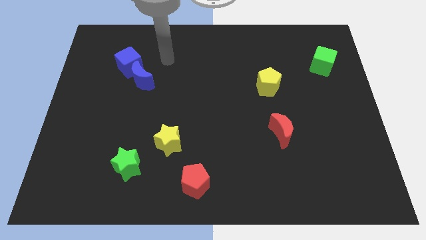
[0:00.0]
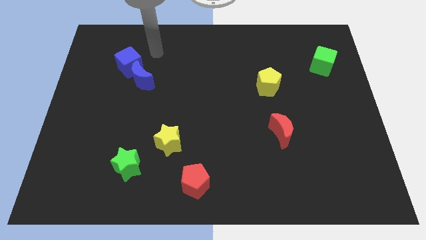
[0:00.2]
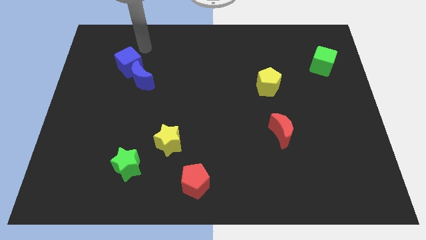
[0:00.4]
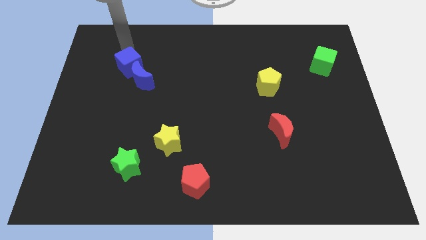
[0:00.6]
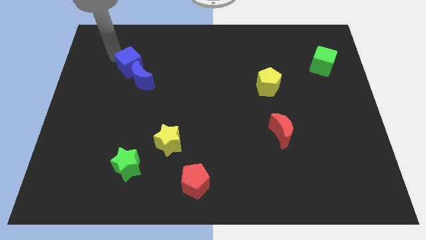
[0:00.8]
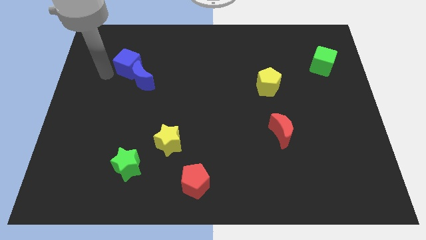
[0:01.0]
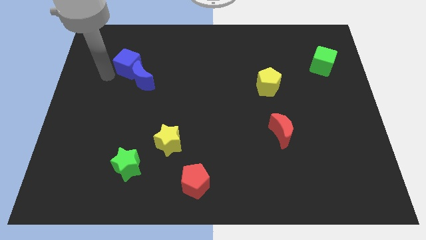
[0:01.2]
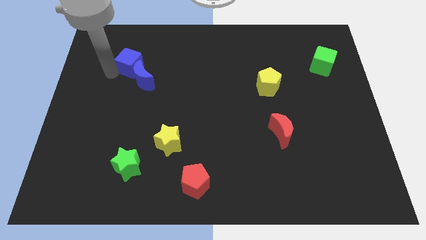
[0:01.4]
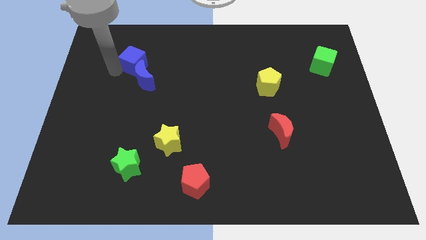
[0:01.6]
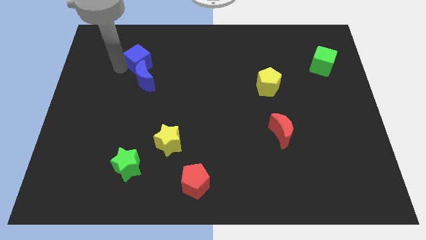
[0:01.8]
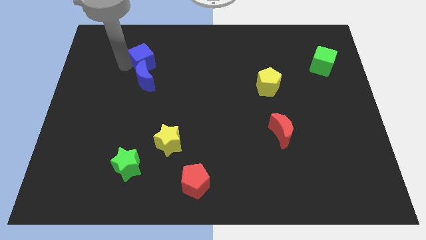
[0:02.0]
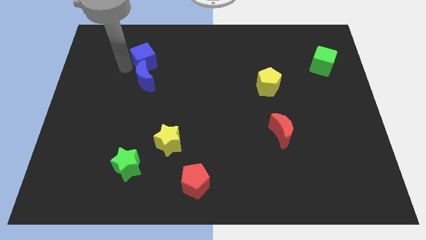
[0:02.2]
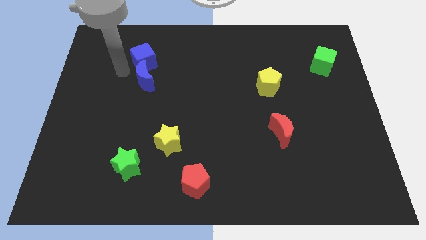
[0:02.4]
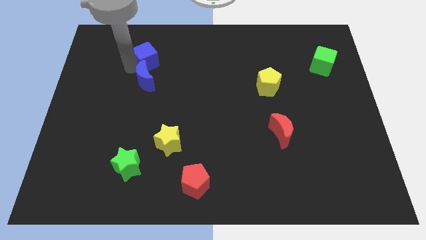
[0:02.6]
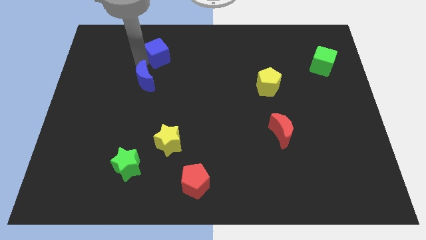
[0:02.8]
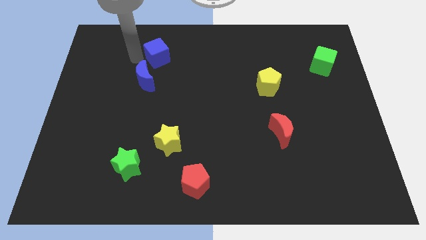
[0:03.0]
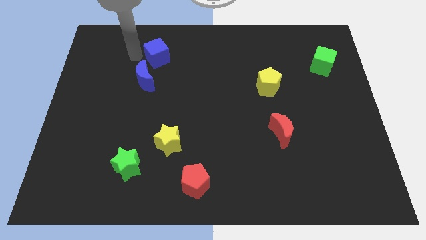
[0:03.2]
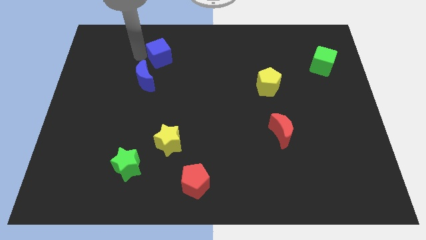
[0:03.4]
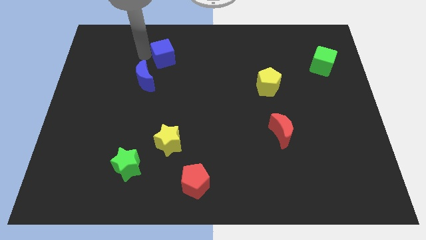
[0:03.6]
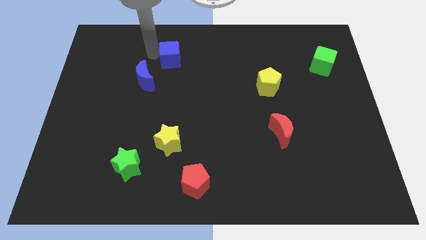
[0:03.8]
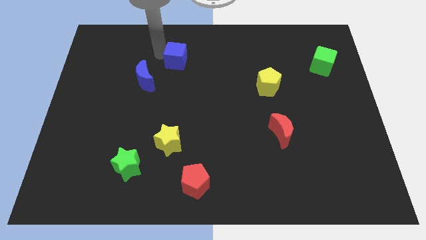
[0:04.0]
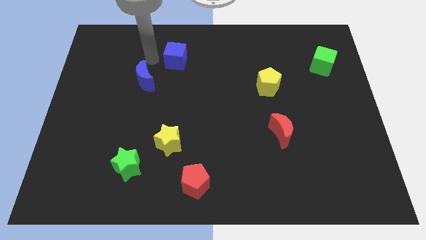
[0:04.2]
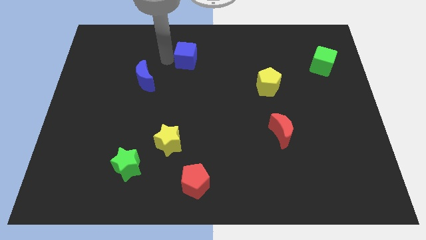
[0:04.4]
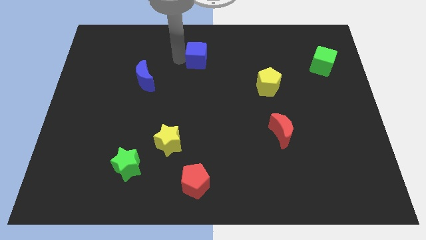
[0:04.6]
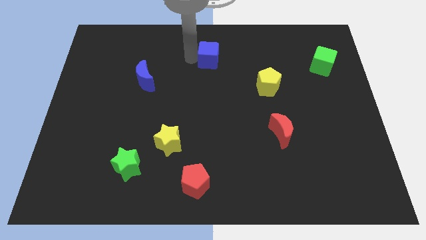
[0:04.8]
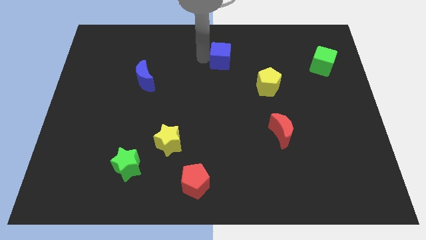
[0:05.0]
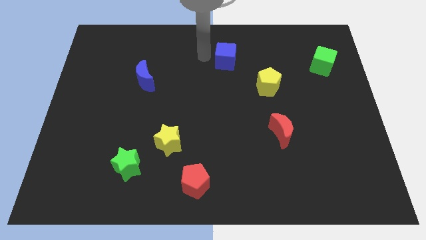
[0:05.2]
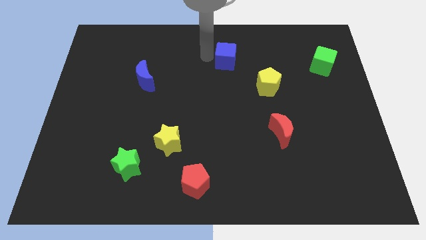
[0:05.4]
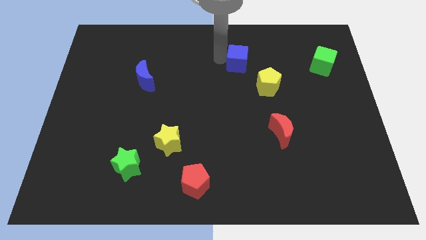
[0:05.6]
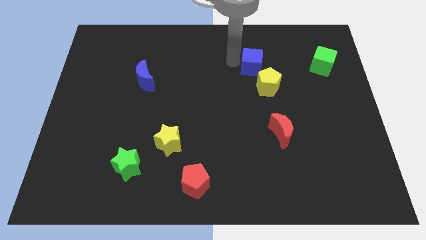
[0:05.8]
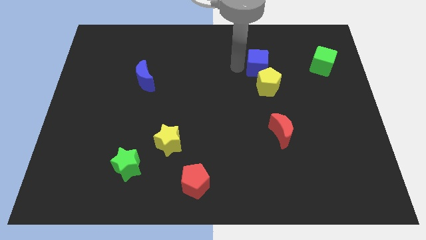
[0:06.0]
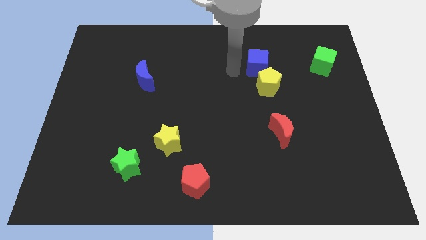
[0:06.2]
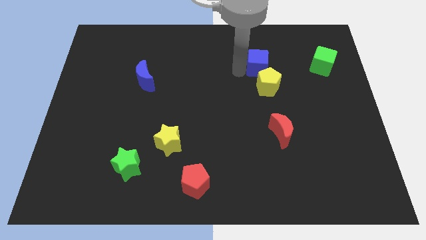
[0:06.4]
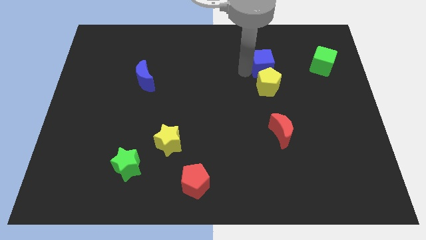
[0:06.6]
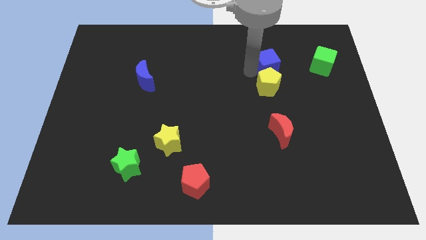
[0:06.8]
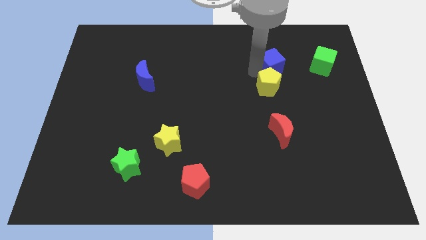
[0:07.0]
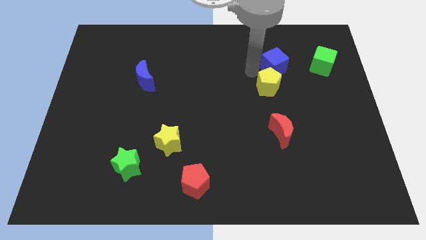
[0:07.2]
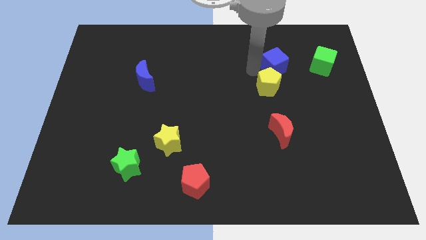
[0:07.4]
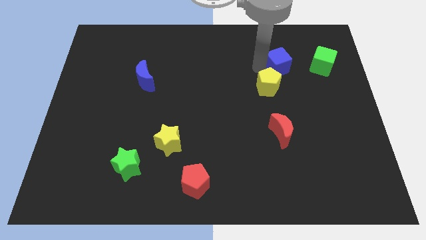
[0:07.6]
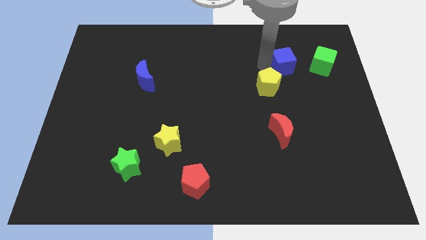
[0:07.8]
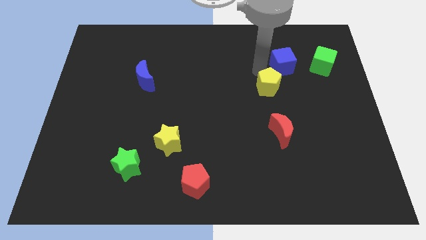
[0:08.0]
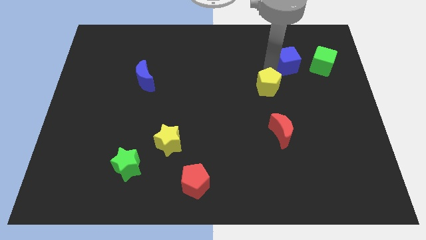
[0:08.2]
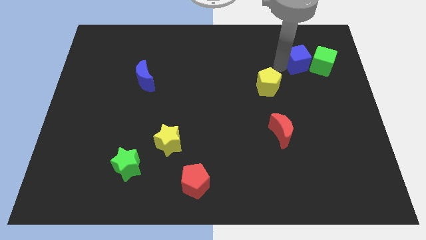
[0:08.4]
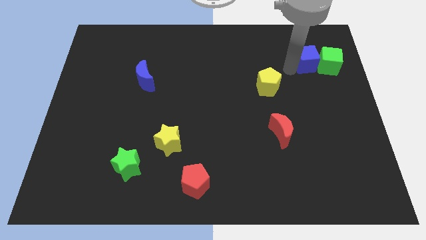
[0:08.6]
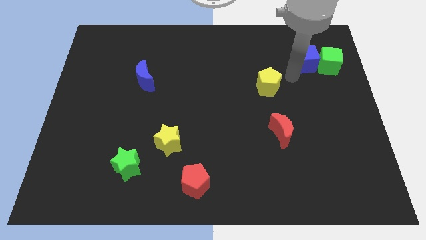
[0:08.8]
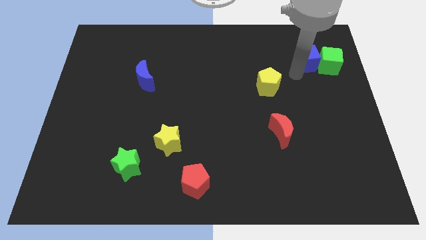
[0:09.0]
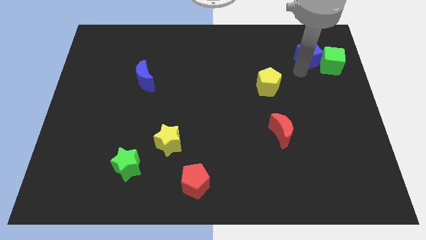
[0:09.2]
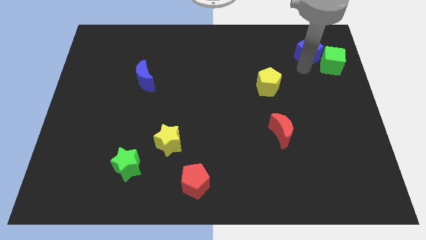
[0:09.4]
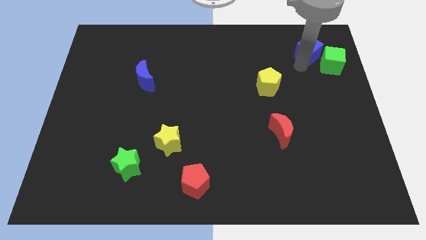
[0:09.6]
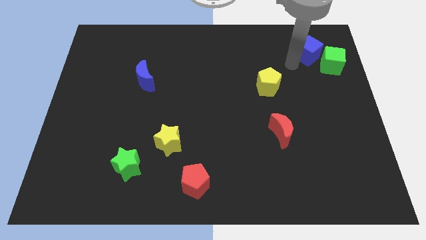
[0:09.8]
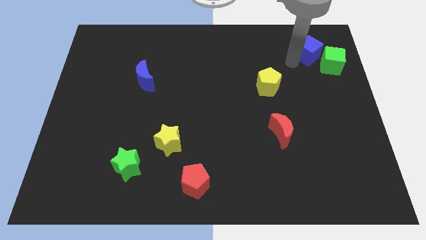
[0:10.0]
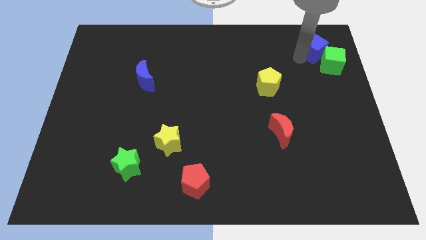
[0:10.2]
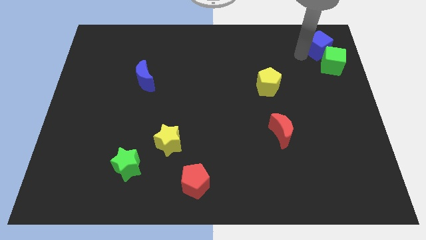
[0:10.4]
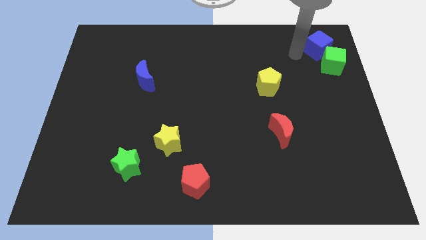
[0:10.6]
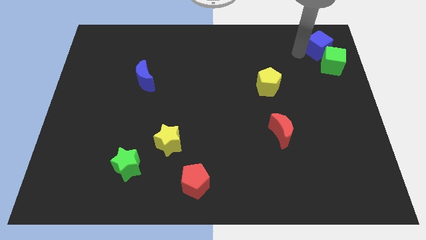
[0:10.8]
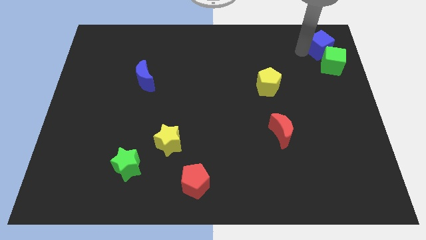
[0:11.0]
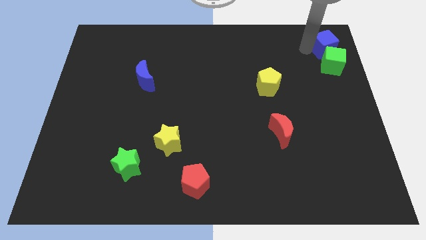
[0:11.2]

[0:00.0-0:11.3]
slide the blue cube to the top right corner

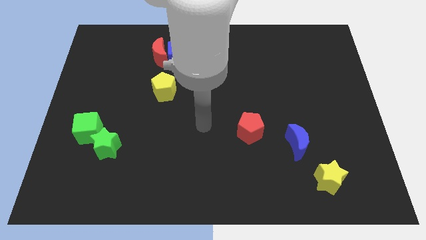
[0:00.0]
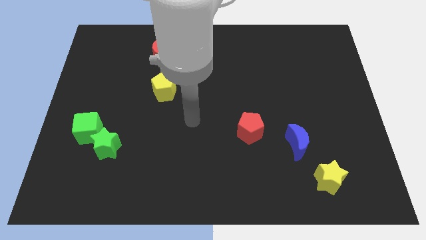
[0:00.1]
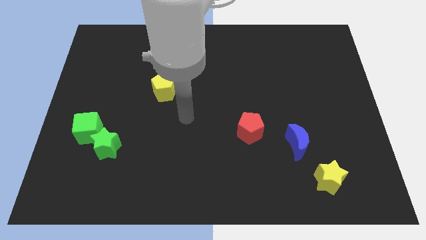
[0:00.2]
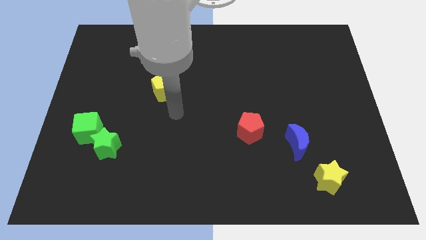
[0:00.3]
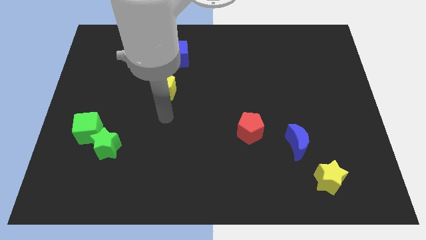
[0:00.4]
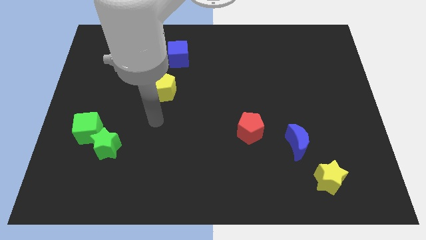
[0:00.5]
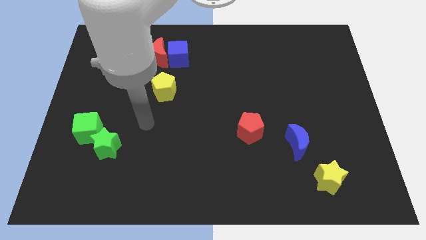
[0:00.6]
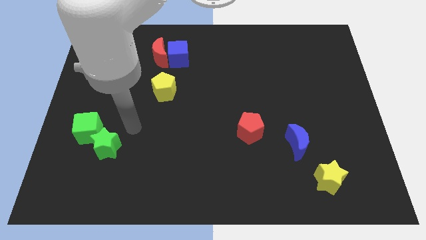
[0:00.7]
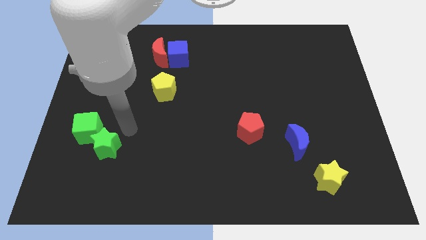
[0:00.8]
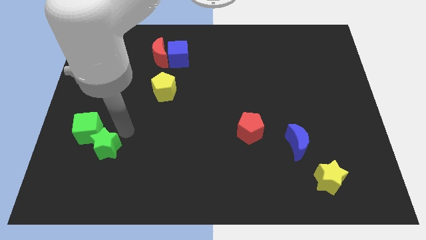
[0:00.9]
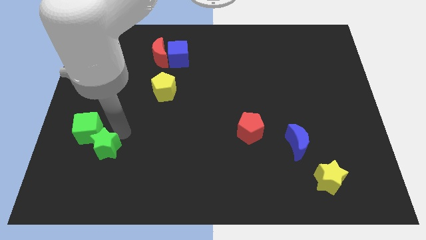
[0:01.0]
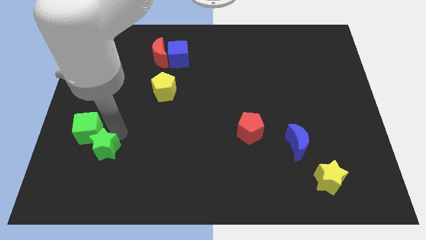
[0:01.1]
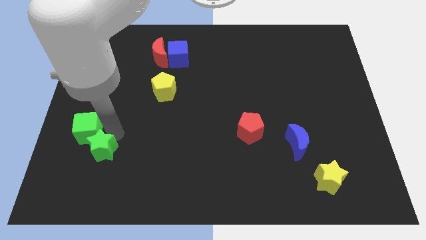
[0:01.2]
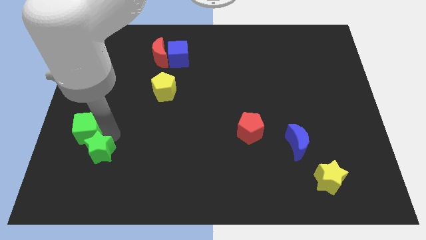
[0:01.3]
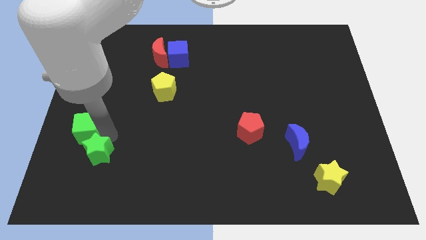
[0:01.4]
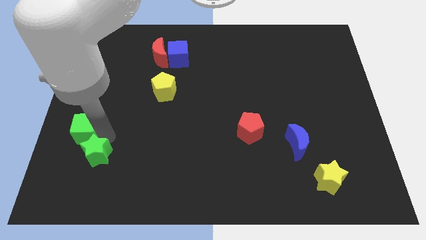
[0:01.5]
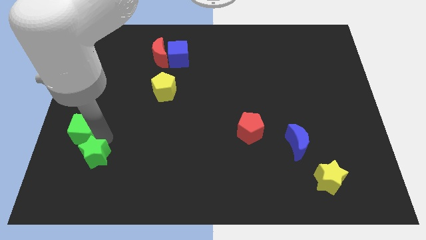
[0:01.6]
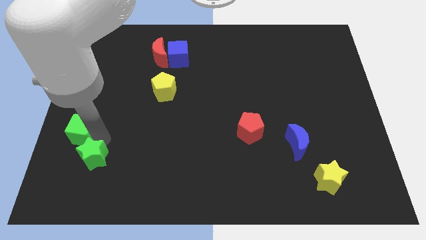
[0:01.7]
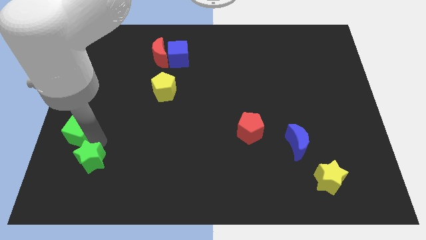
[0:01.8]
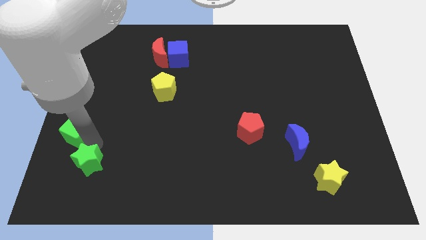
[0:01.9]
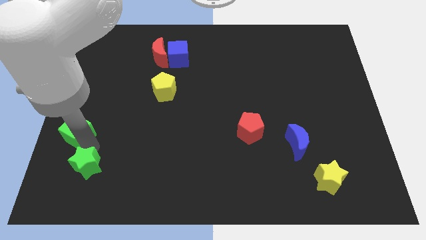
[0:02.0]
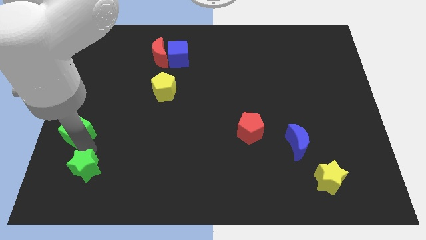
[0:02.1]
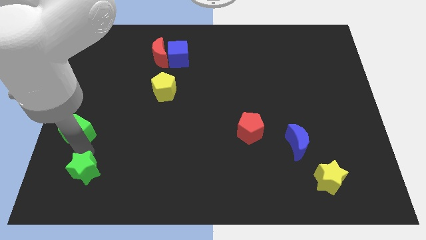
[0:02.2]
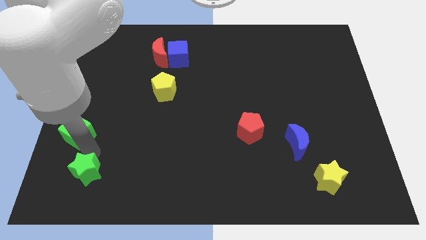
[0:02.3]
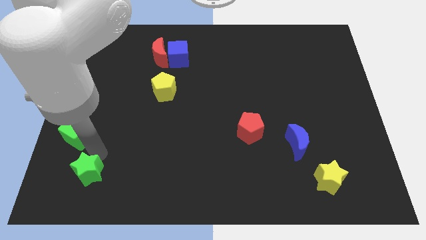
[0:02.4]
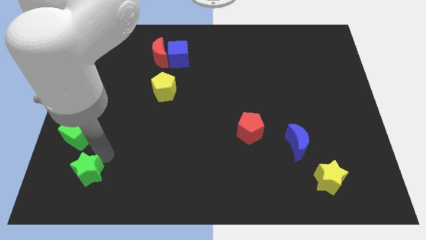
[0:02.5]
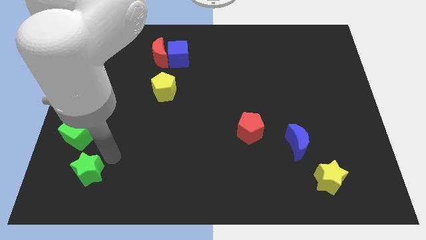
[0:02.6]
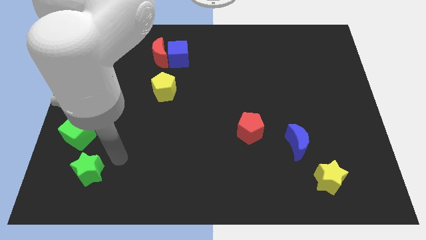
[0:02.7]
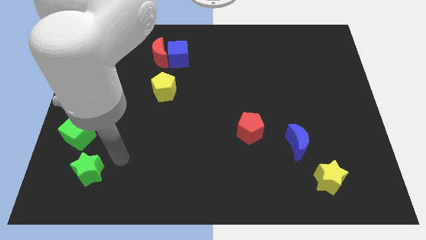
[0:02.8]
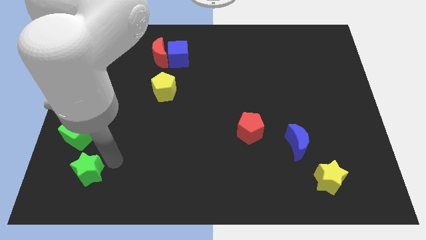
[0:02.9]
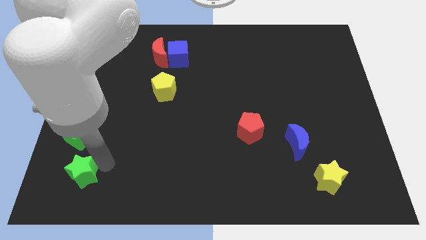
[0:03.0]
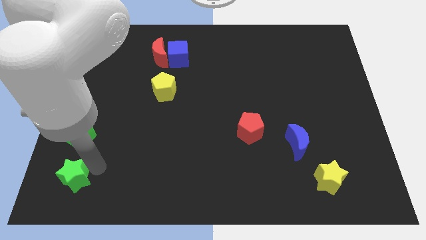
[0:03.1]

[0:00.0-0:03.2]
slide the green star to the lower left corner
